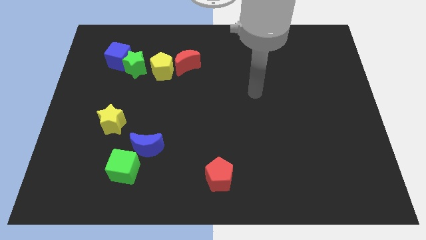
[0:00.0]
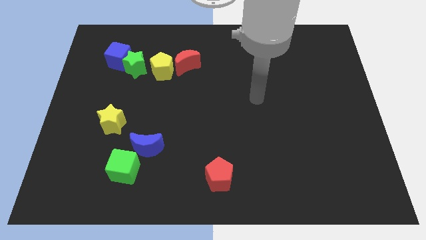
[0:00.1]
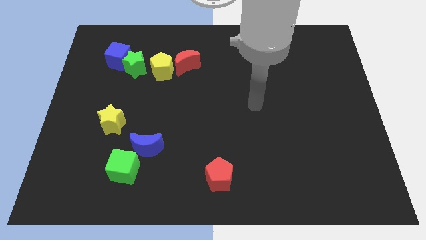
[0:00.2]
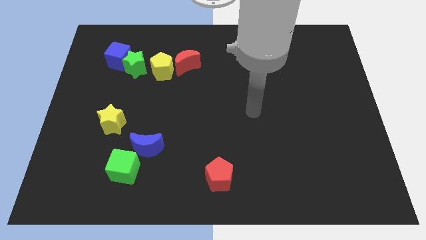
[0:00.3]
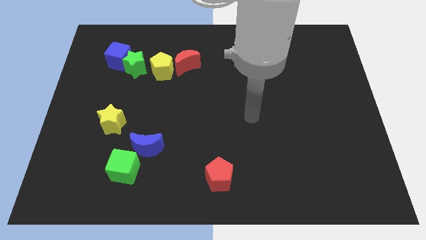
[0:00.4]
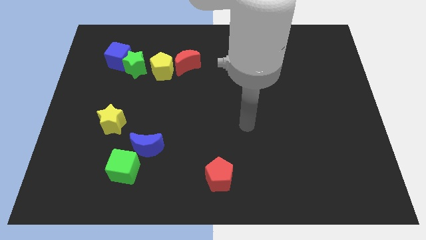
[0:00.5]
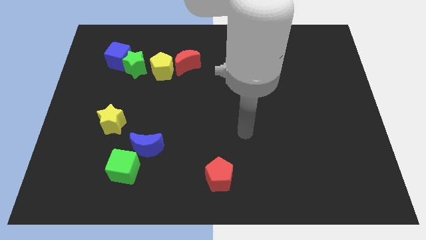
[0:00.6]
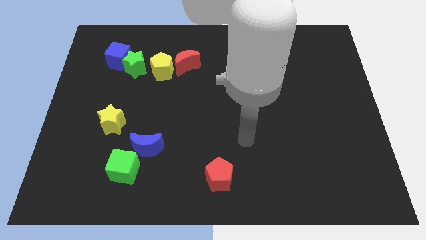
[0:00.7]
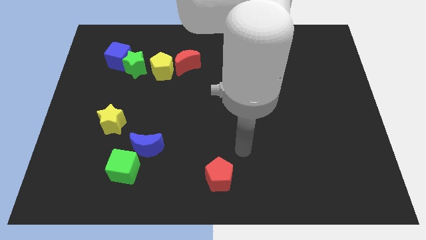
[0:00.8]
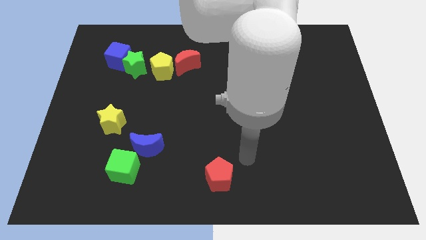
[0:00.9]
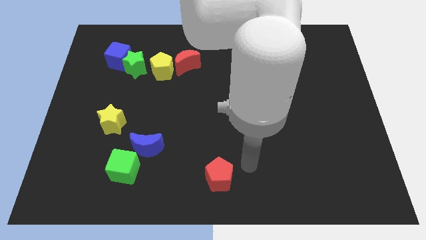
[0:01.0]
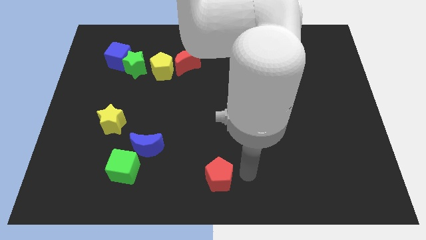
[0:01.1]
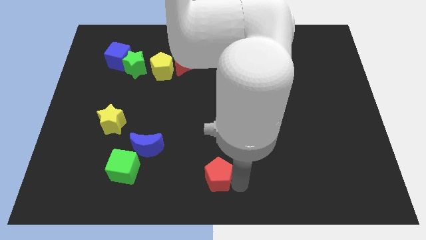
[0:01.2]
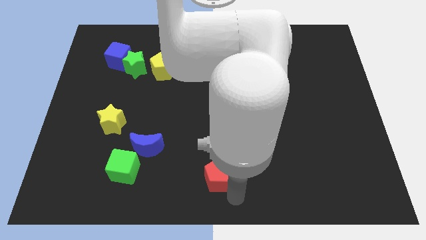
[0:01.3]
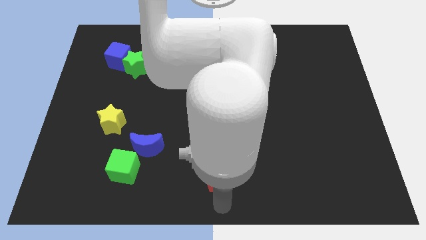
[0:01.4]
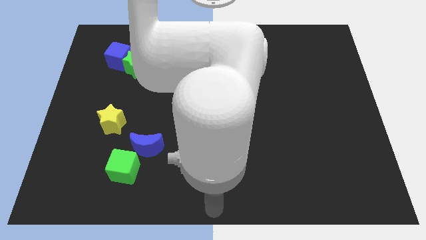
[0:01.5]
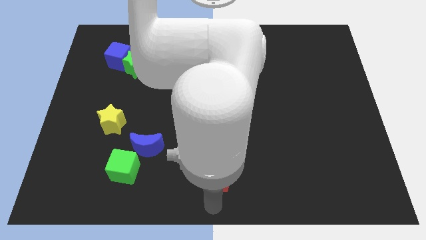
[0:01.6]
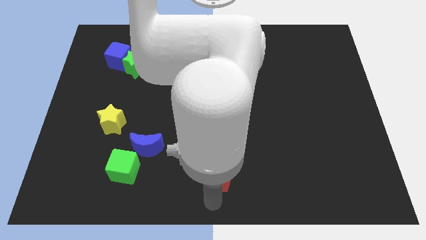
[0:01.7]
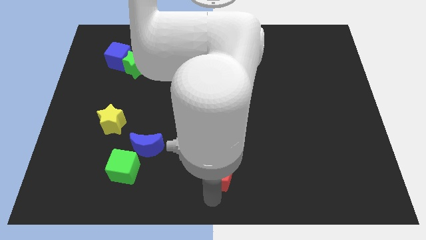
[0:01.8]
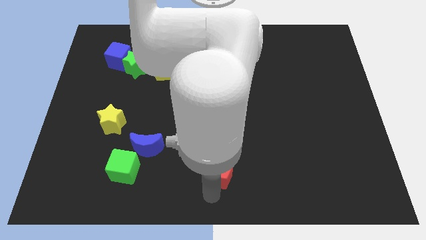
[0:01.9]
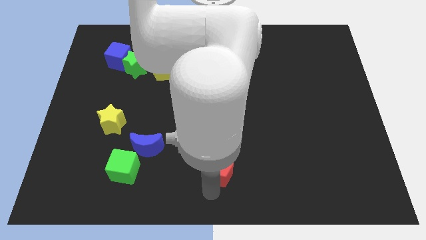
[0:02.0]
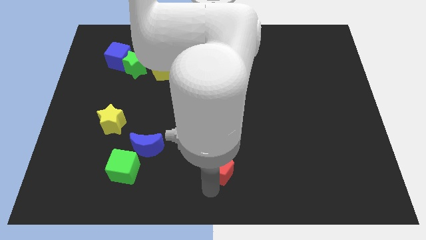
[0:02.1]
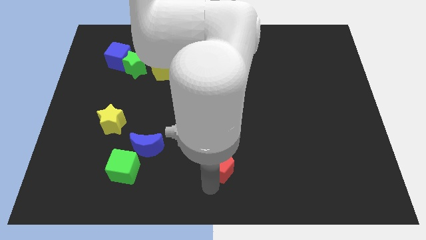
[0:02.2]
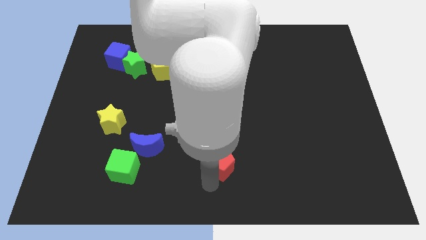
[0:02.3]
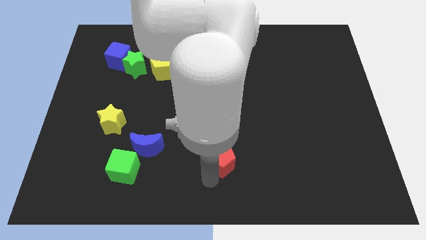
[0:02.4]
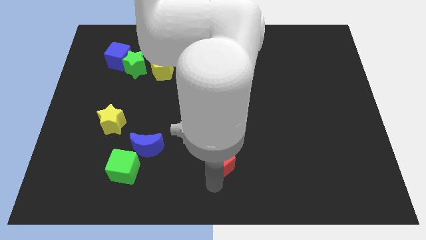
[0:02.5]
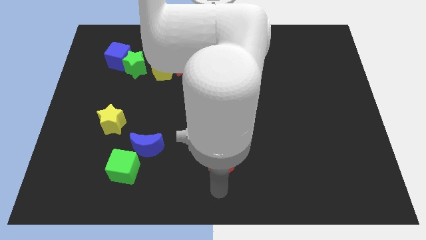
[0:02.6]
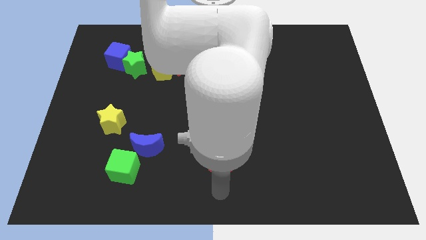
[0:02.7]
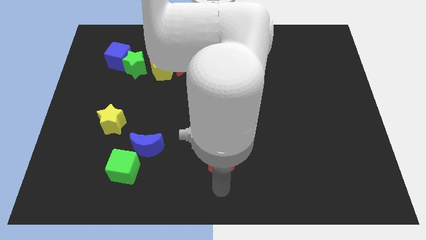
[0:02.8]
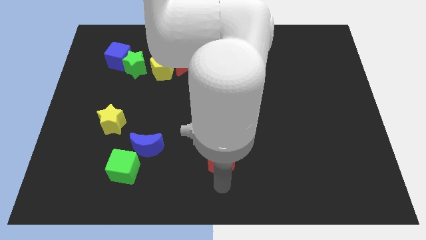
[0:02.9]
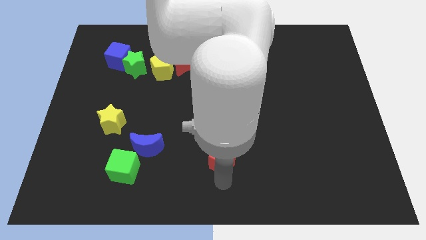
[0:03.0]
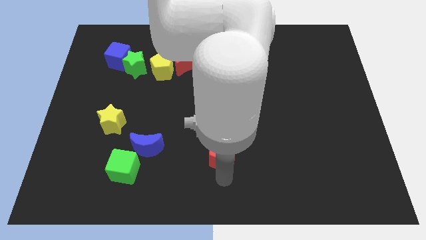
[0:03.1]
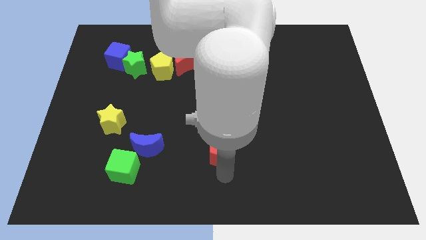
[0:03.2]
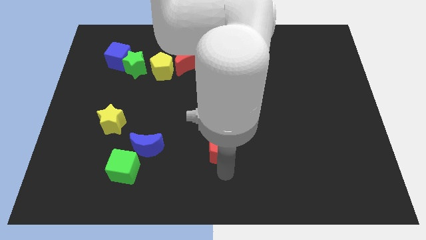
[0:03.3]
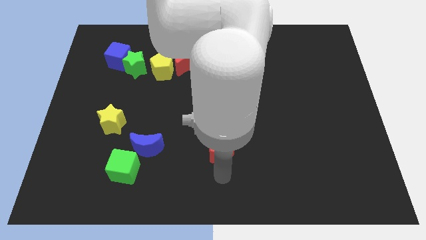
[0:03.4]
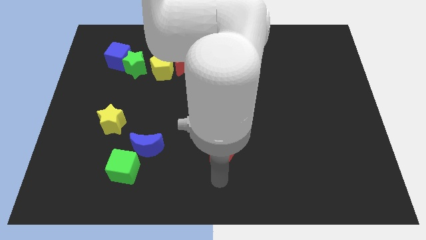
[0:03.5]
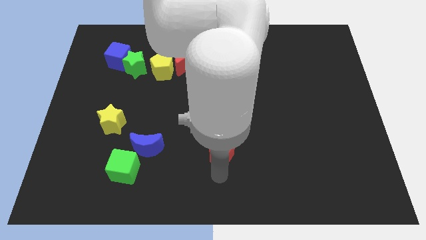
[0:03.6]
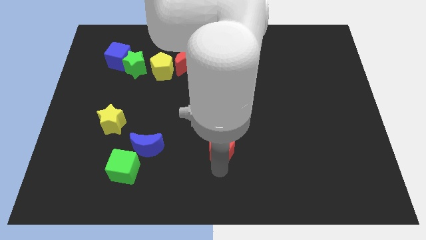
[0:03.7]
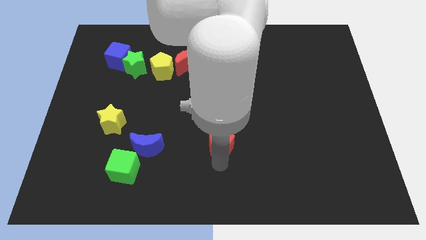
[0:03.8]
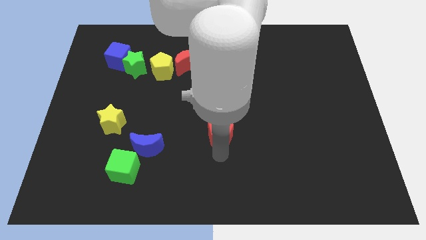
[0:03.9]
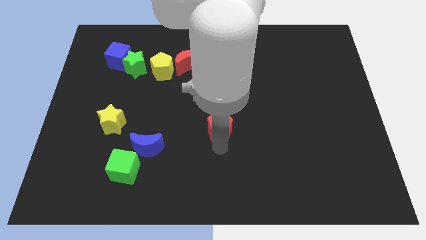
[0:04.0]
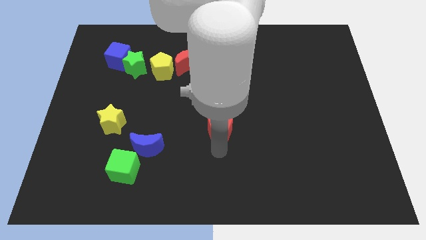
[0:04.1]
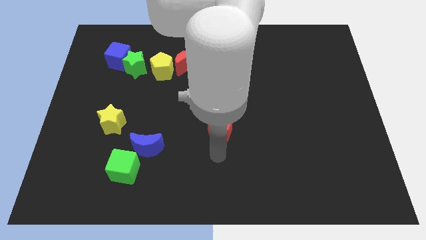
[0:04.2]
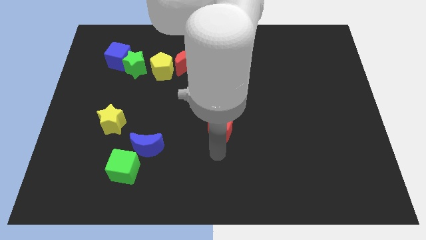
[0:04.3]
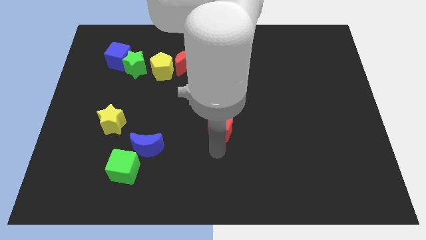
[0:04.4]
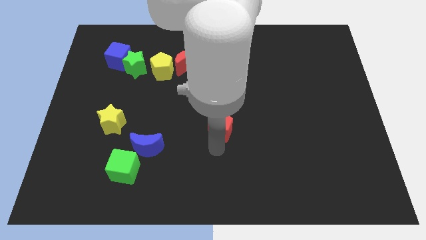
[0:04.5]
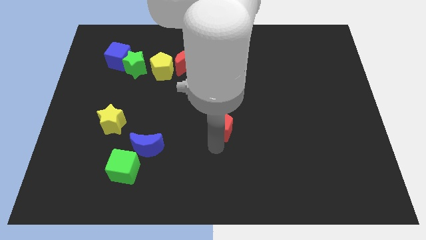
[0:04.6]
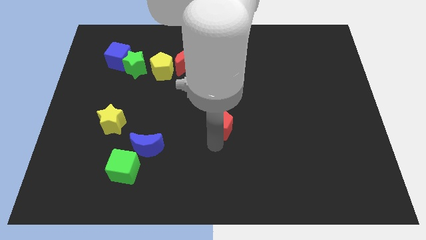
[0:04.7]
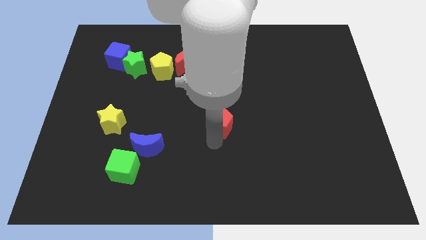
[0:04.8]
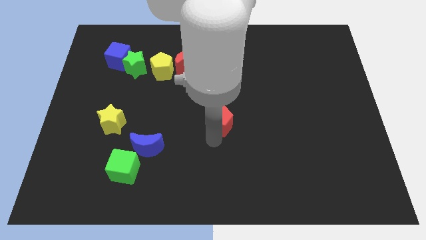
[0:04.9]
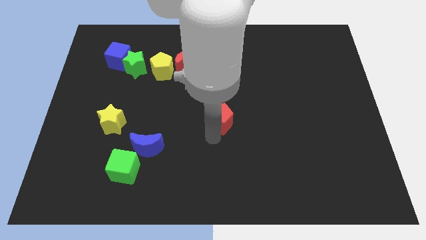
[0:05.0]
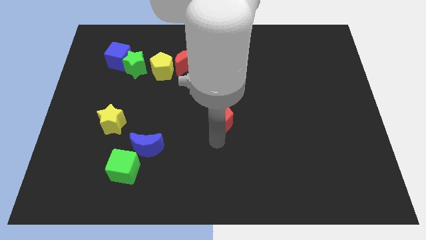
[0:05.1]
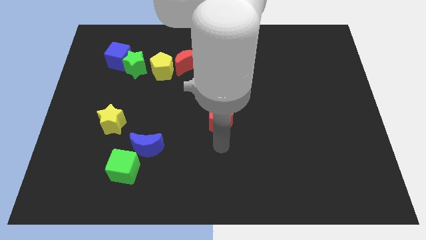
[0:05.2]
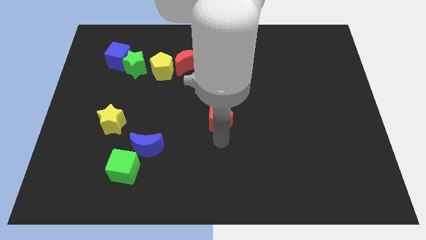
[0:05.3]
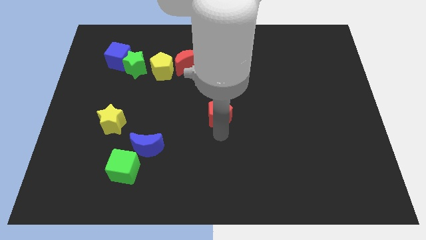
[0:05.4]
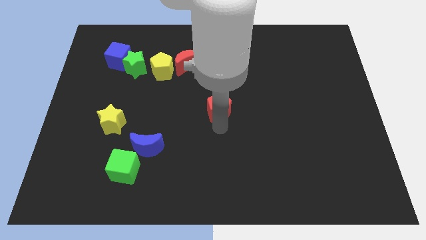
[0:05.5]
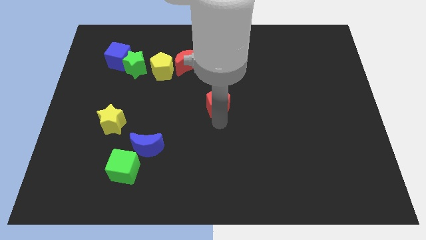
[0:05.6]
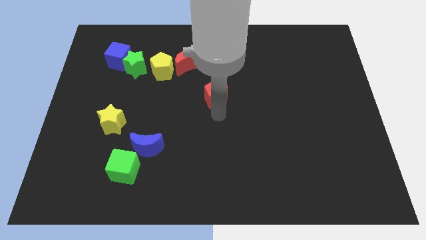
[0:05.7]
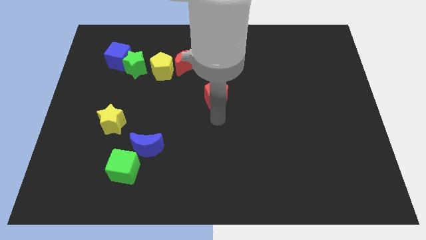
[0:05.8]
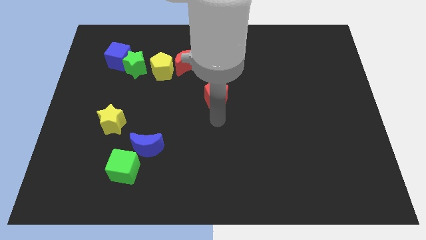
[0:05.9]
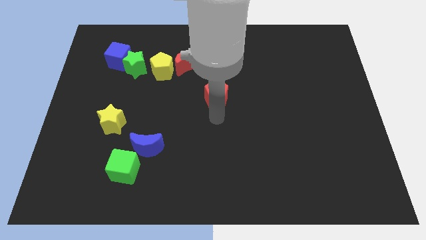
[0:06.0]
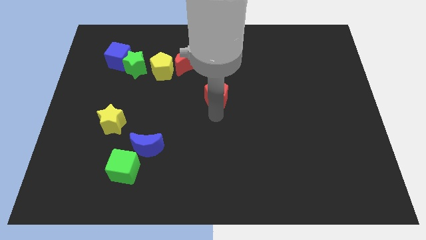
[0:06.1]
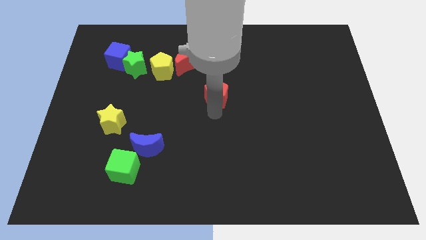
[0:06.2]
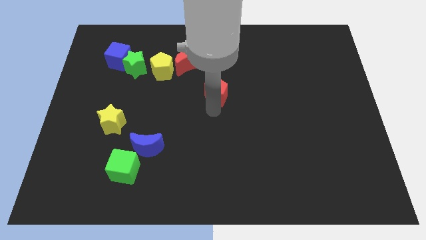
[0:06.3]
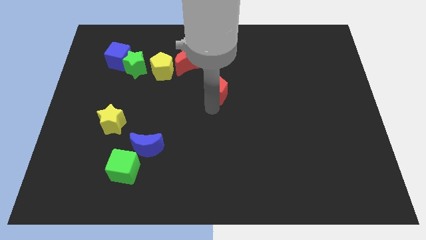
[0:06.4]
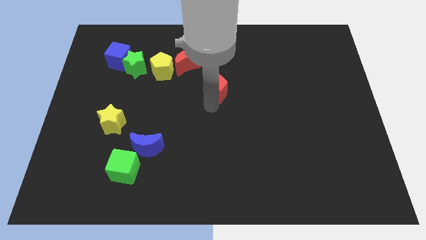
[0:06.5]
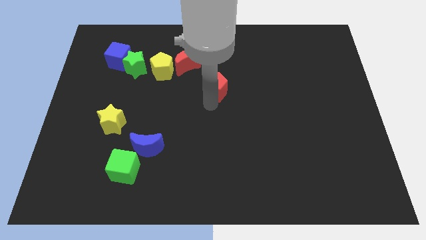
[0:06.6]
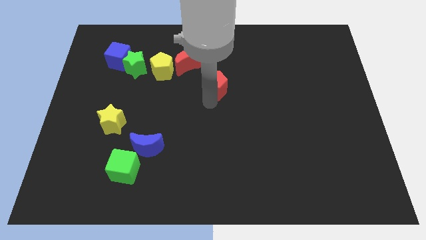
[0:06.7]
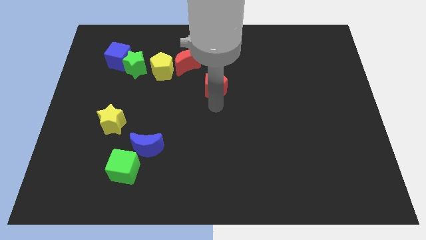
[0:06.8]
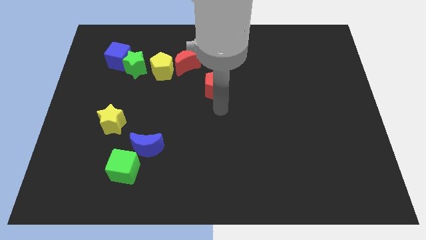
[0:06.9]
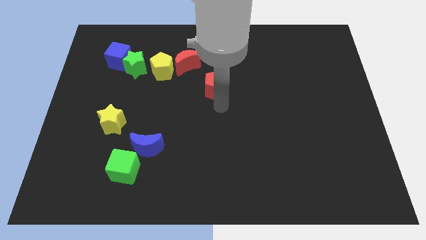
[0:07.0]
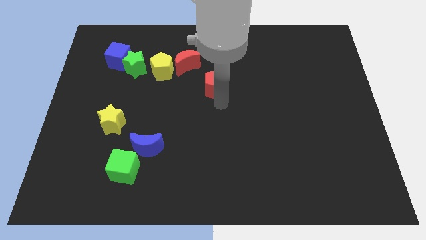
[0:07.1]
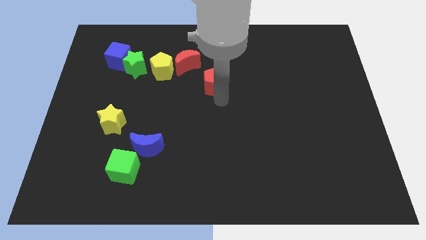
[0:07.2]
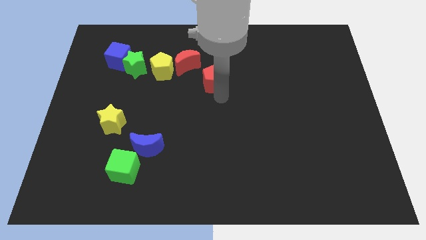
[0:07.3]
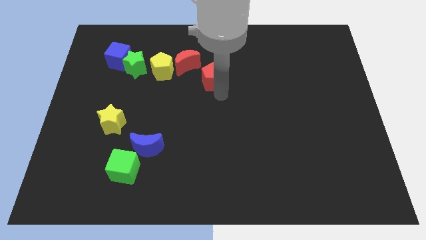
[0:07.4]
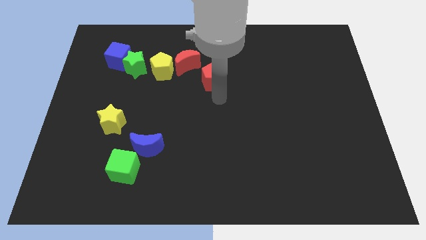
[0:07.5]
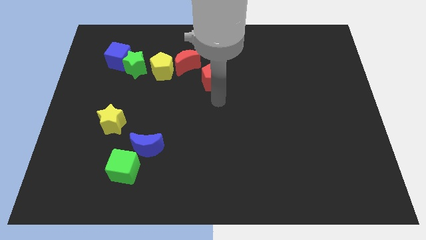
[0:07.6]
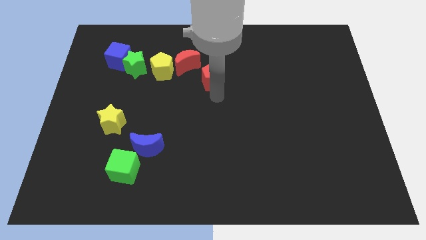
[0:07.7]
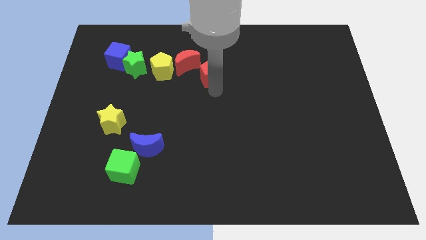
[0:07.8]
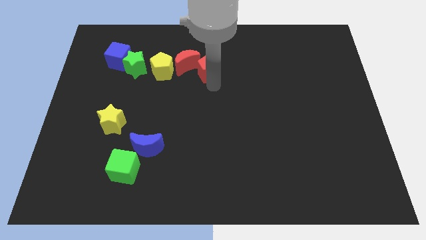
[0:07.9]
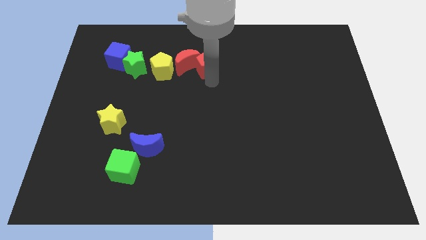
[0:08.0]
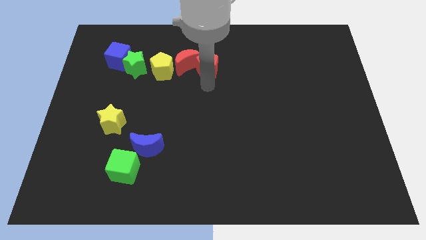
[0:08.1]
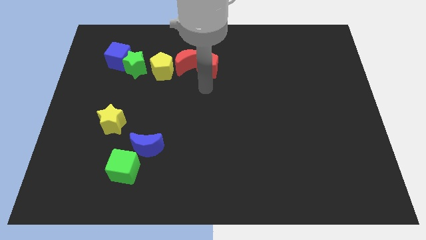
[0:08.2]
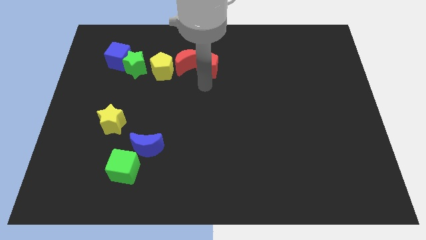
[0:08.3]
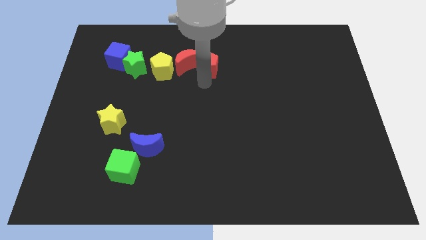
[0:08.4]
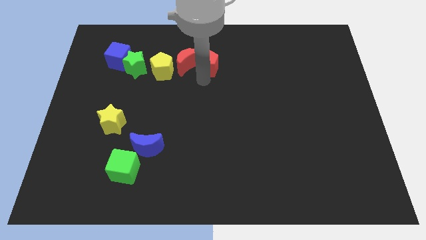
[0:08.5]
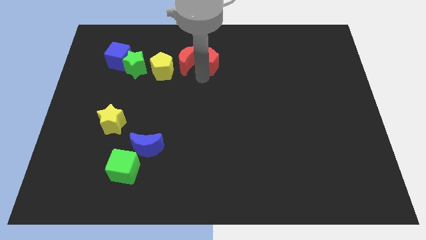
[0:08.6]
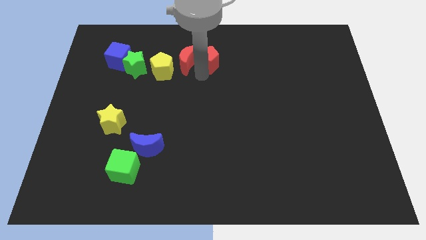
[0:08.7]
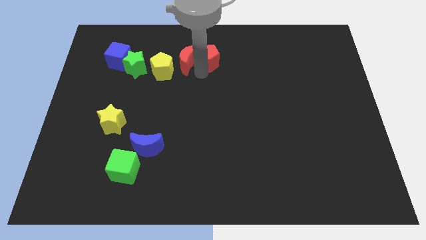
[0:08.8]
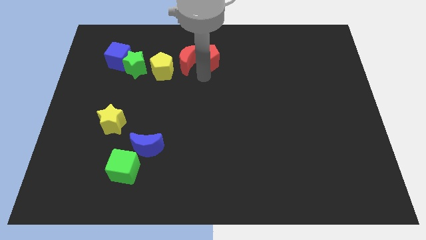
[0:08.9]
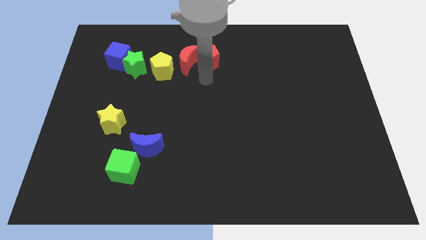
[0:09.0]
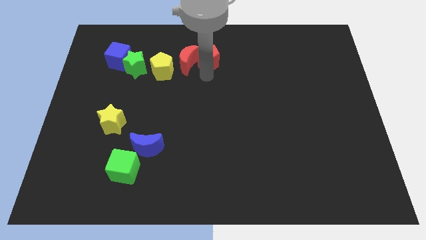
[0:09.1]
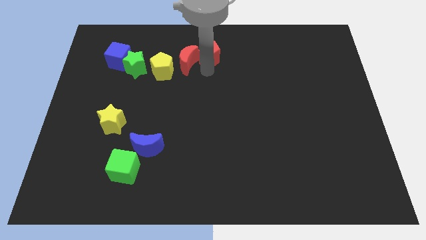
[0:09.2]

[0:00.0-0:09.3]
slide the red pentagon to the top side
